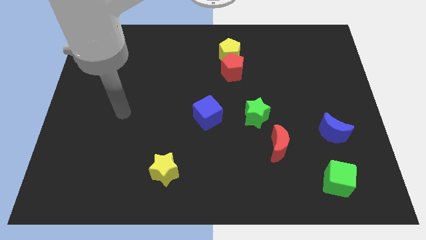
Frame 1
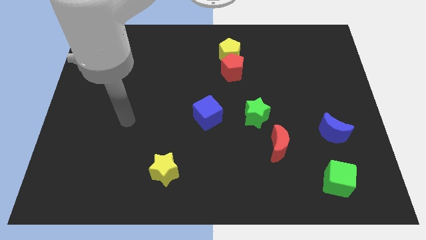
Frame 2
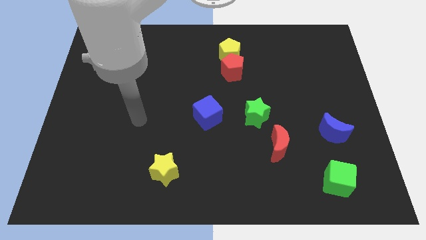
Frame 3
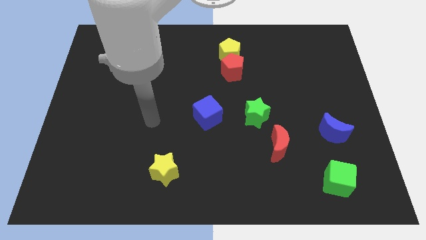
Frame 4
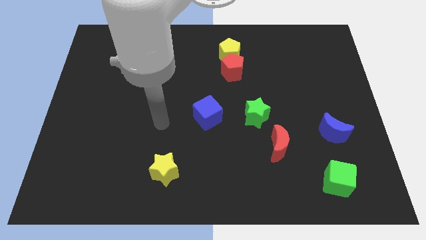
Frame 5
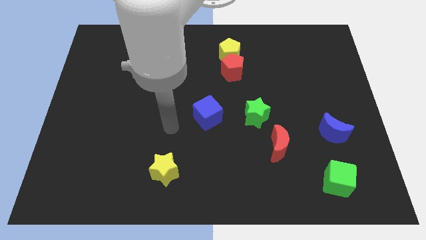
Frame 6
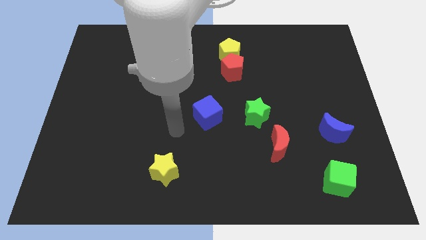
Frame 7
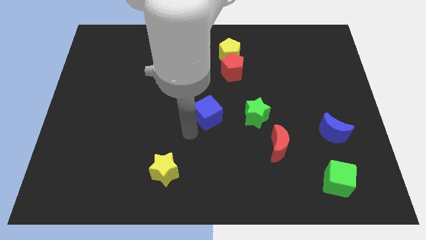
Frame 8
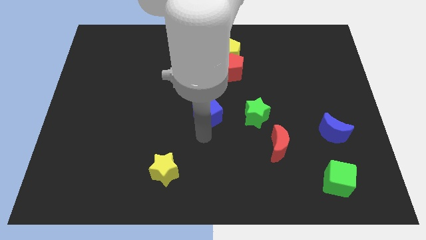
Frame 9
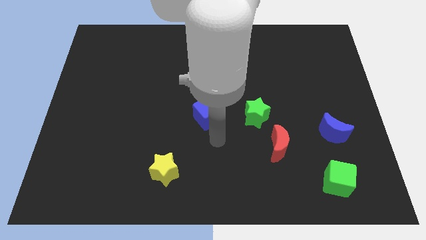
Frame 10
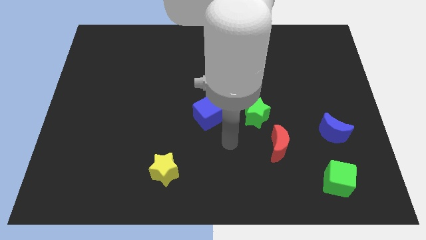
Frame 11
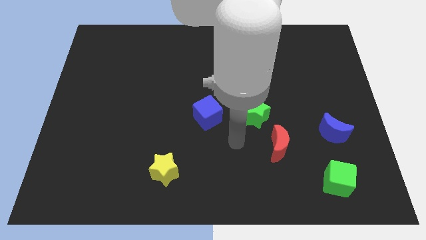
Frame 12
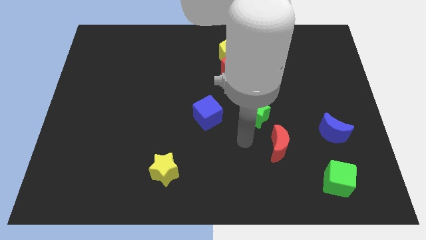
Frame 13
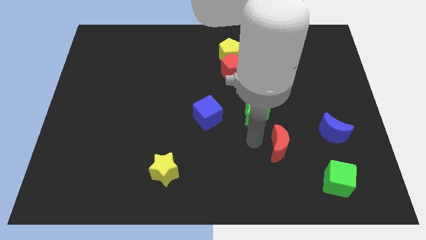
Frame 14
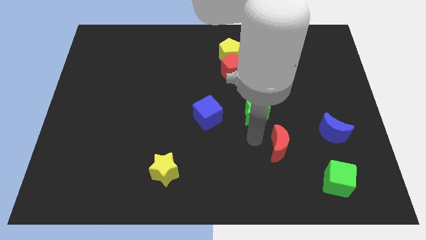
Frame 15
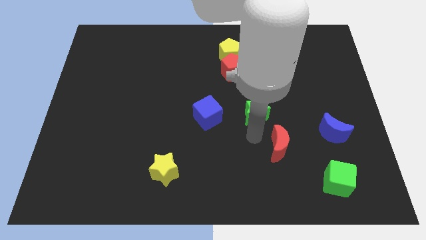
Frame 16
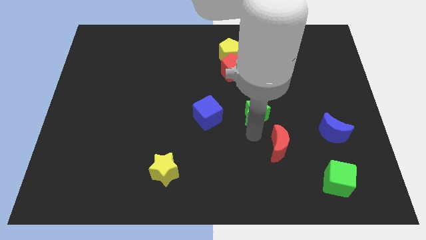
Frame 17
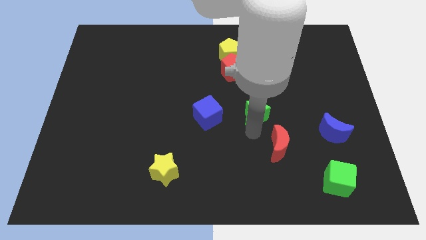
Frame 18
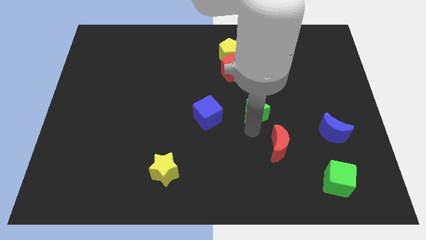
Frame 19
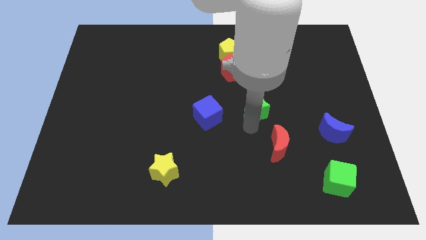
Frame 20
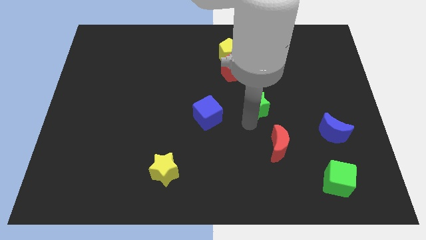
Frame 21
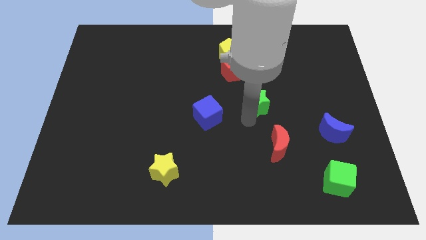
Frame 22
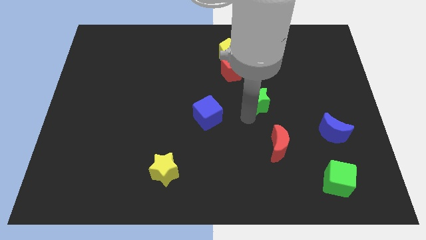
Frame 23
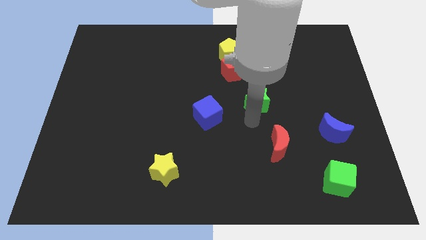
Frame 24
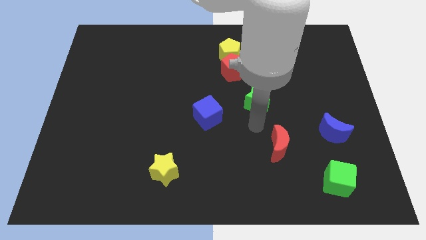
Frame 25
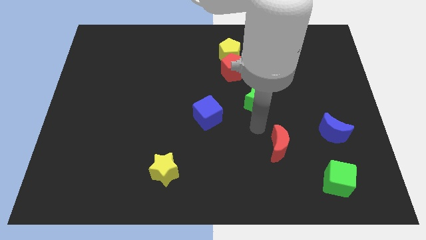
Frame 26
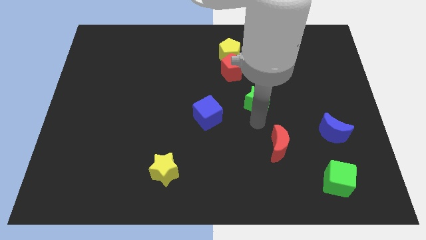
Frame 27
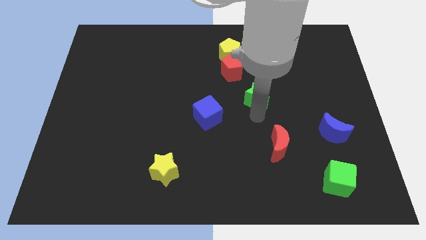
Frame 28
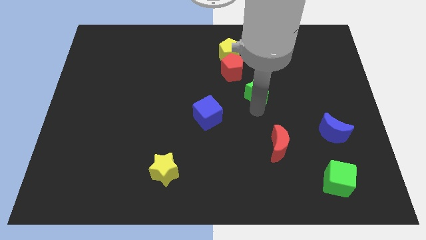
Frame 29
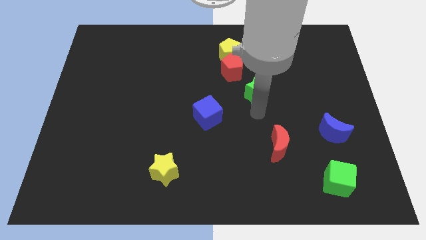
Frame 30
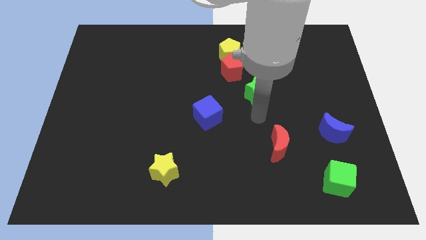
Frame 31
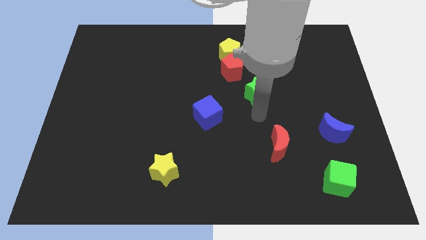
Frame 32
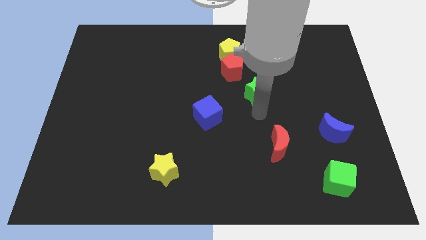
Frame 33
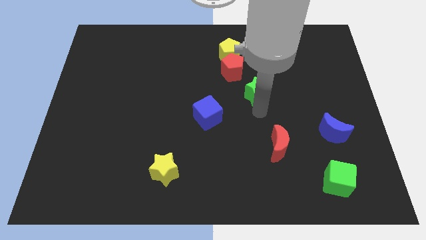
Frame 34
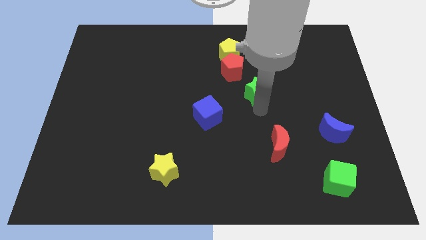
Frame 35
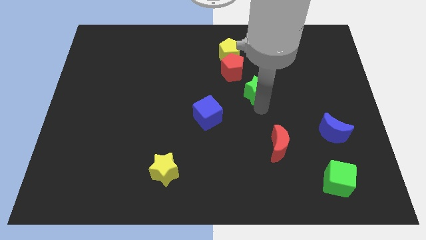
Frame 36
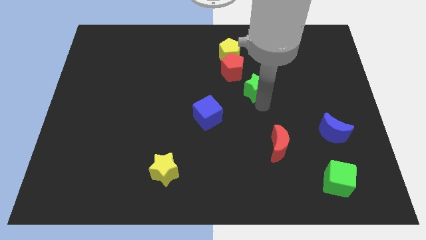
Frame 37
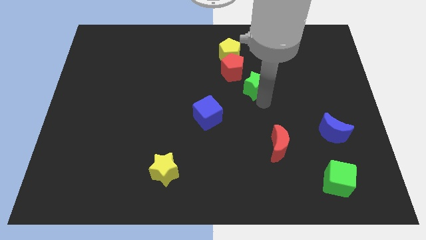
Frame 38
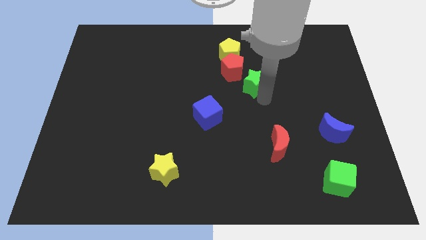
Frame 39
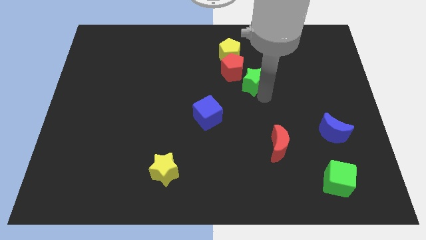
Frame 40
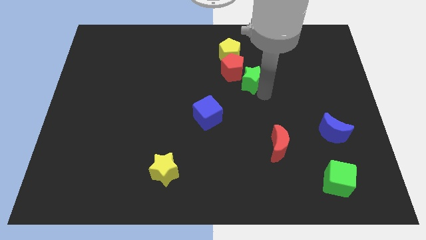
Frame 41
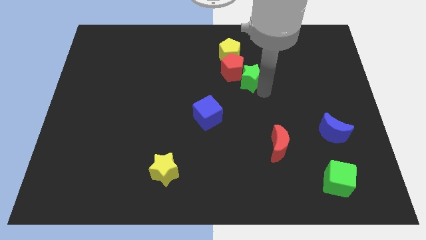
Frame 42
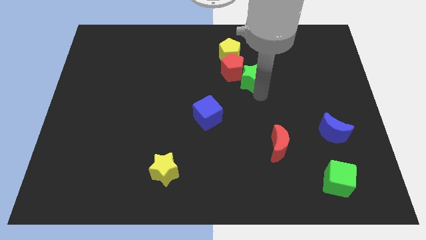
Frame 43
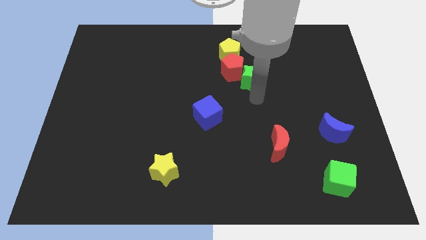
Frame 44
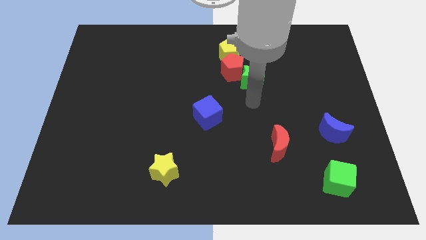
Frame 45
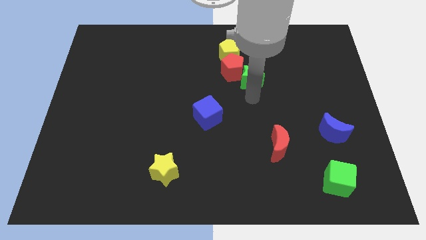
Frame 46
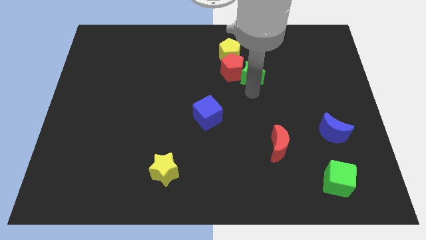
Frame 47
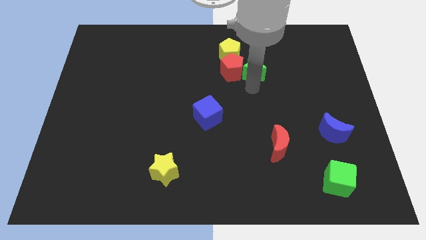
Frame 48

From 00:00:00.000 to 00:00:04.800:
put the green star to the top right of the red pentagon

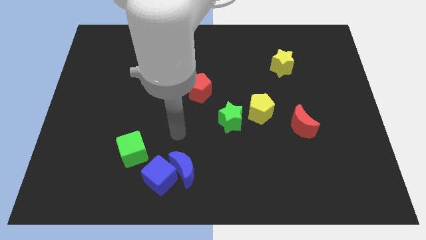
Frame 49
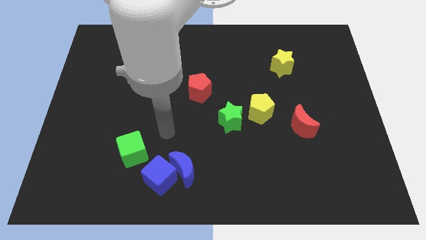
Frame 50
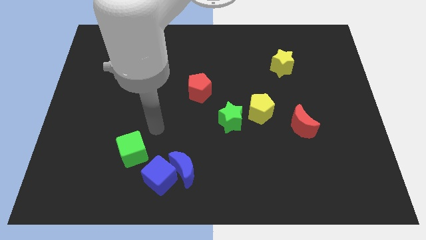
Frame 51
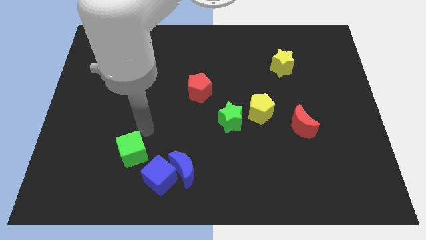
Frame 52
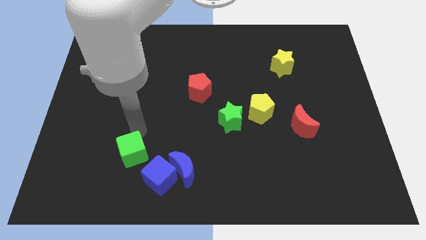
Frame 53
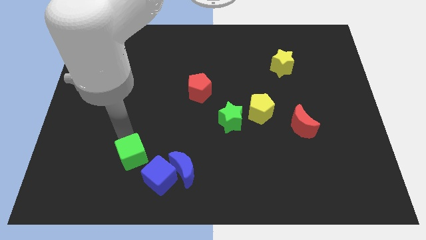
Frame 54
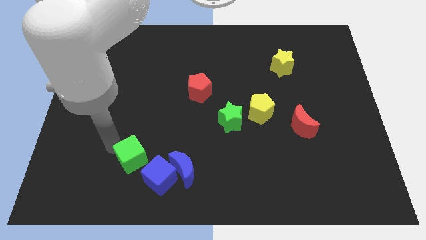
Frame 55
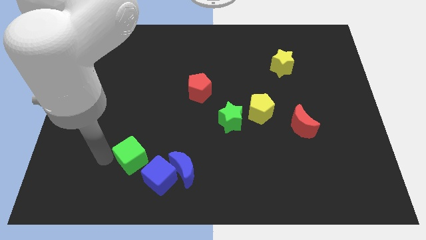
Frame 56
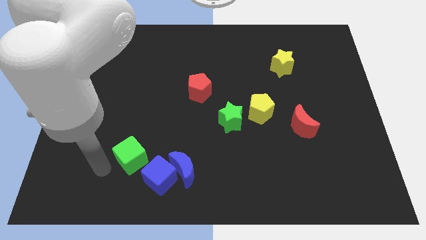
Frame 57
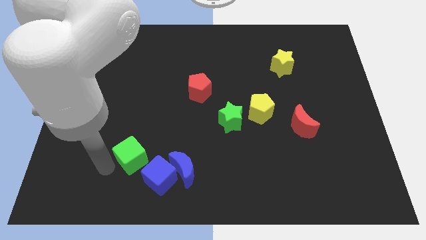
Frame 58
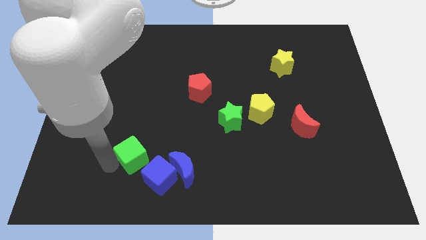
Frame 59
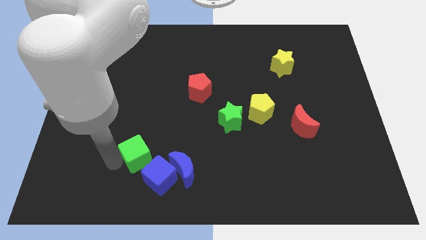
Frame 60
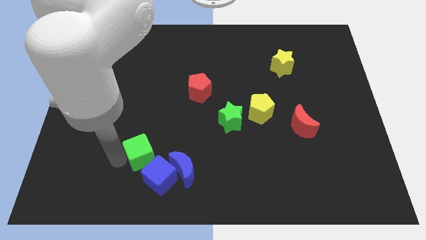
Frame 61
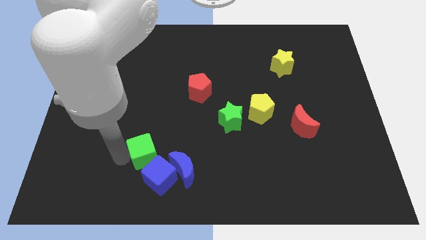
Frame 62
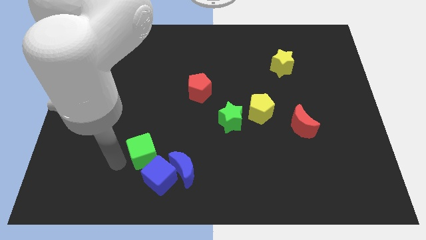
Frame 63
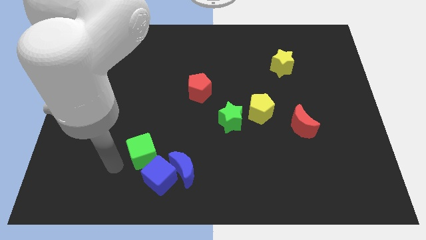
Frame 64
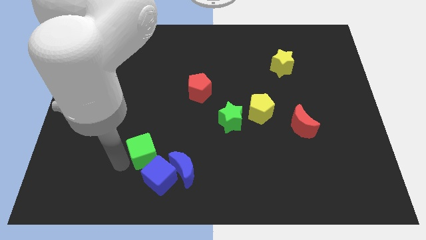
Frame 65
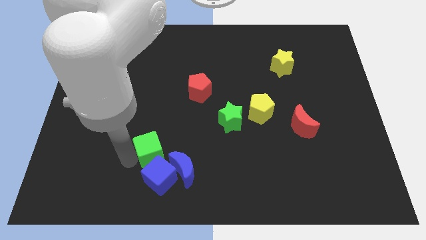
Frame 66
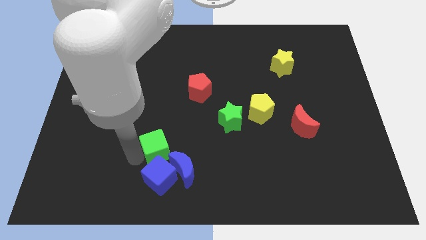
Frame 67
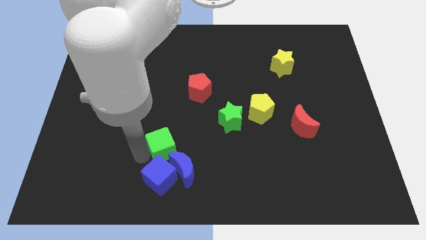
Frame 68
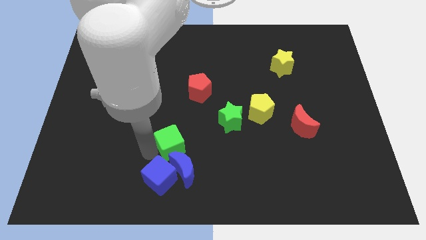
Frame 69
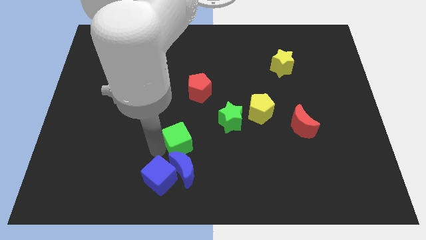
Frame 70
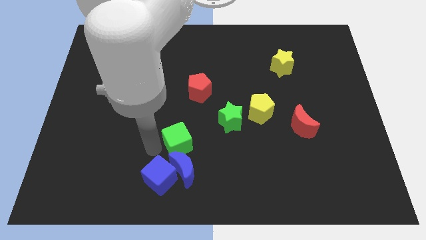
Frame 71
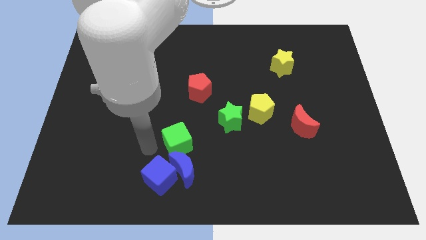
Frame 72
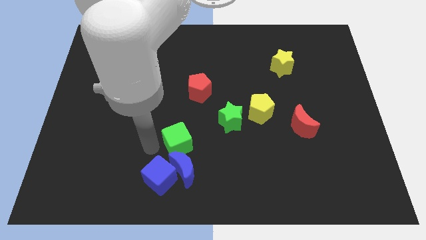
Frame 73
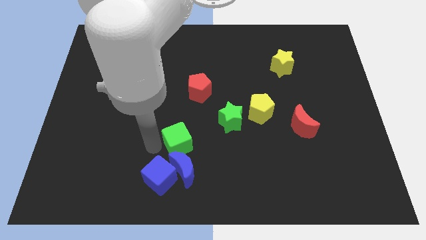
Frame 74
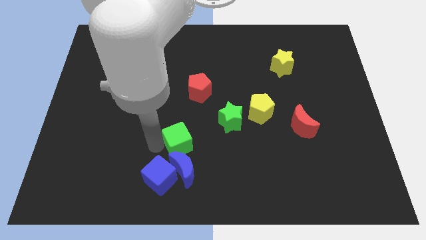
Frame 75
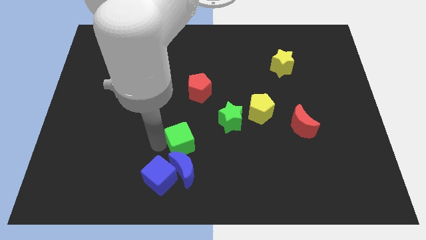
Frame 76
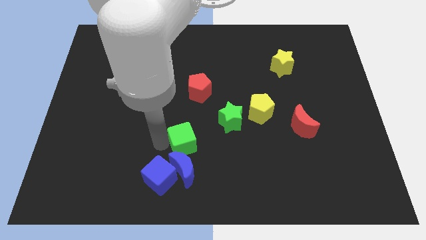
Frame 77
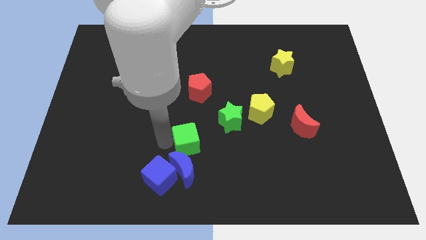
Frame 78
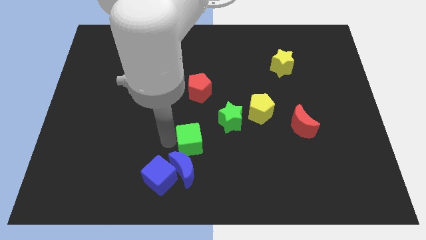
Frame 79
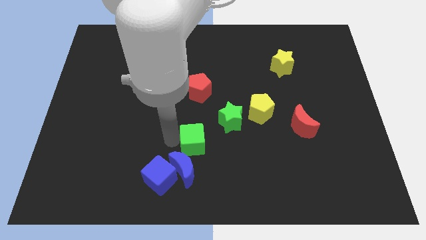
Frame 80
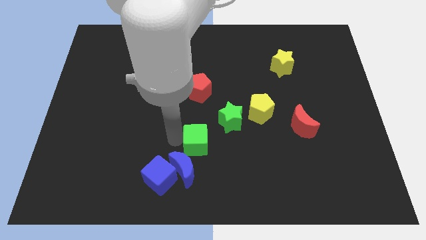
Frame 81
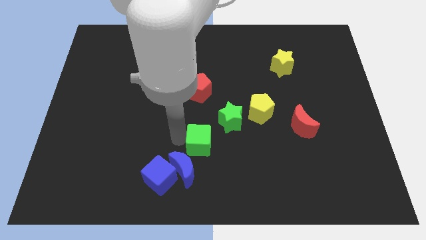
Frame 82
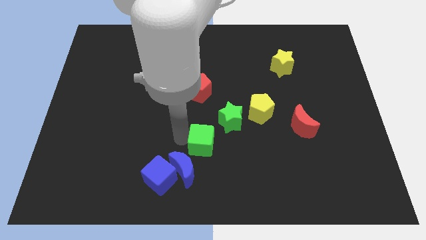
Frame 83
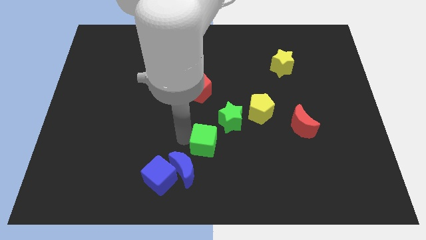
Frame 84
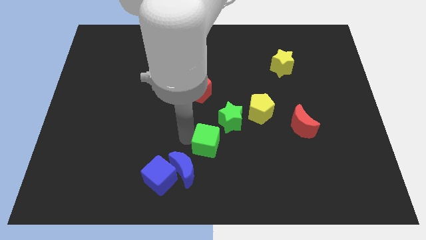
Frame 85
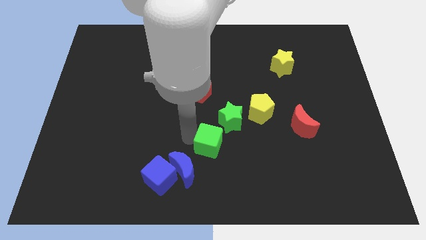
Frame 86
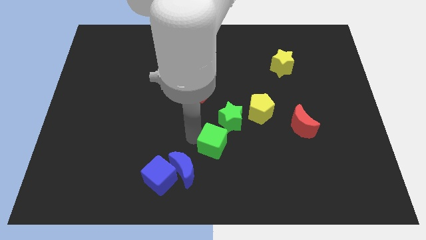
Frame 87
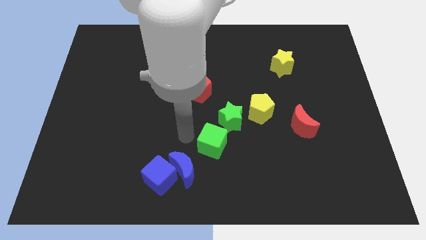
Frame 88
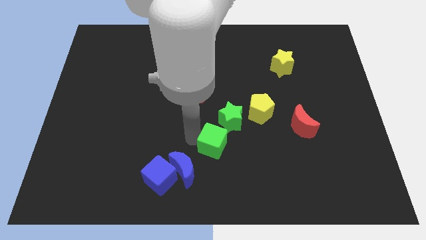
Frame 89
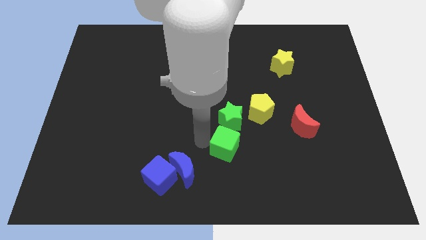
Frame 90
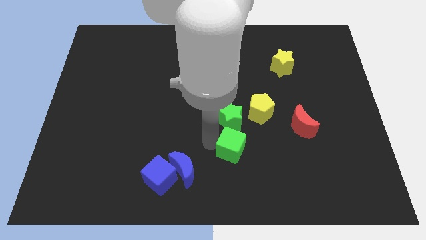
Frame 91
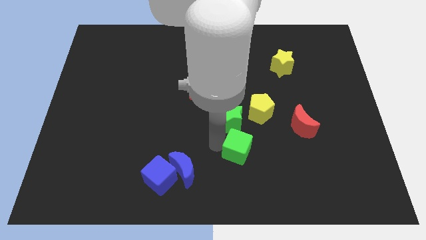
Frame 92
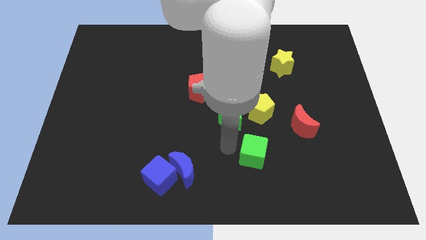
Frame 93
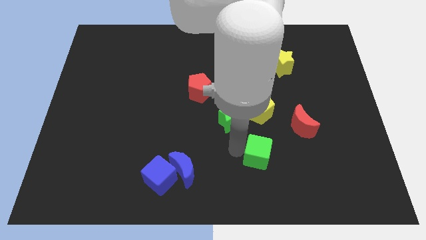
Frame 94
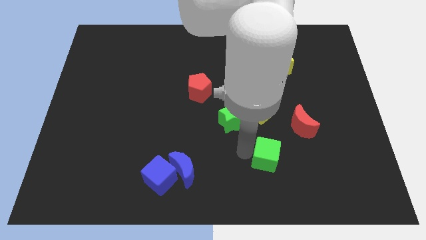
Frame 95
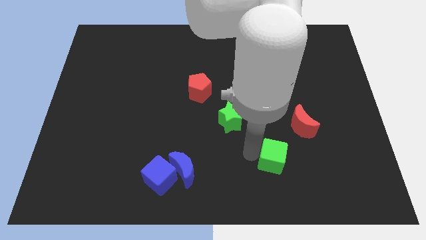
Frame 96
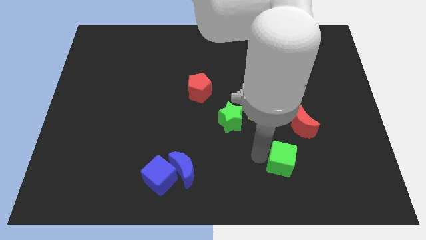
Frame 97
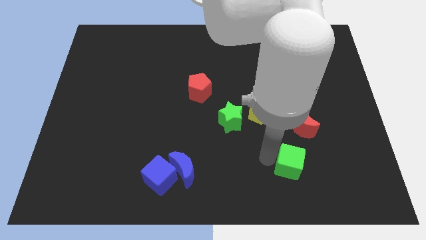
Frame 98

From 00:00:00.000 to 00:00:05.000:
put the green cube to the bottom of the red moon
